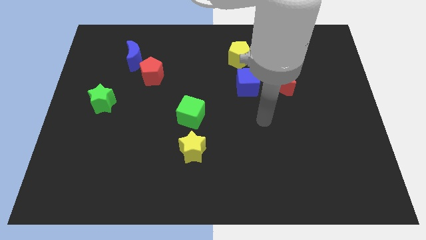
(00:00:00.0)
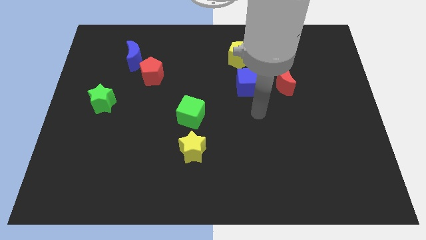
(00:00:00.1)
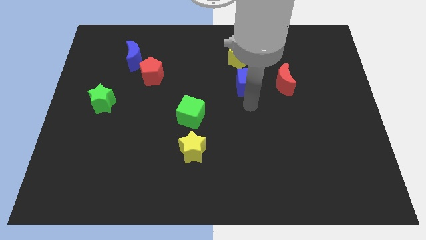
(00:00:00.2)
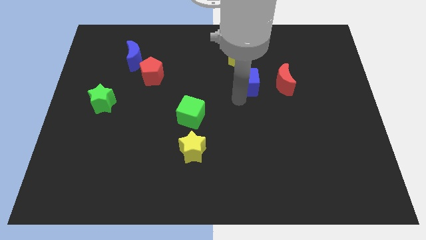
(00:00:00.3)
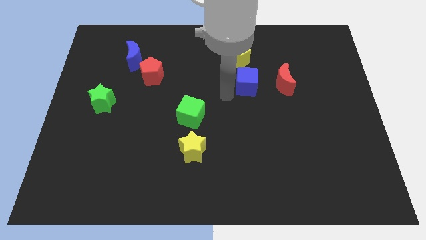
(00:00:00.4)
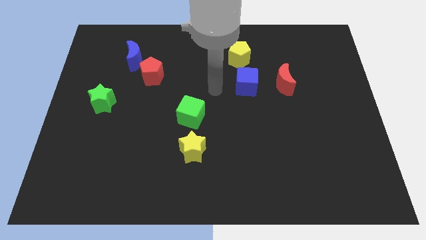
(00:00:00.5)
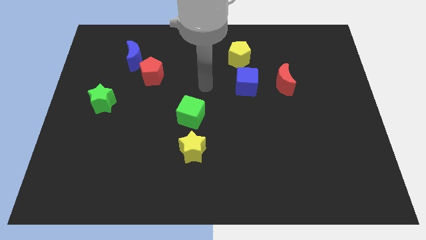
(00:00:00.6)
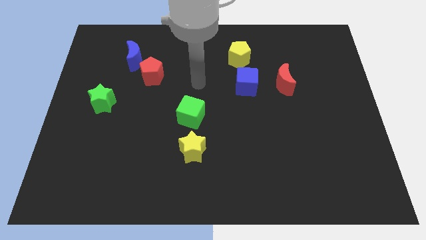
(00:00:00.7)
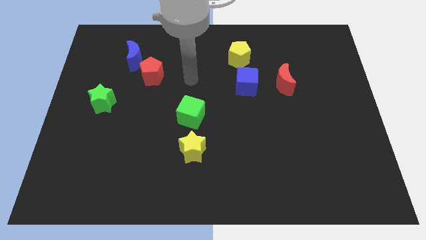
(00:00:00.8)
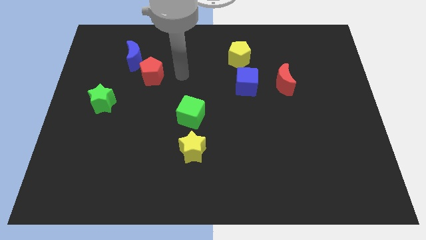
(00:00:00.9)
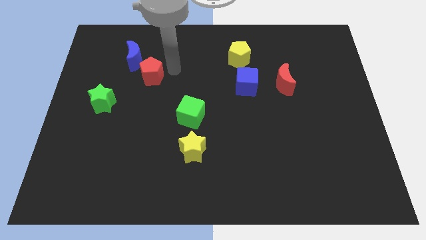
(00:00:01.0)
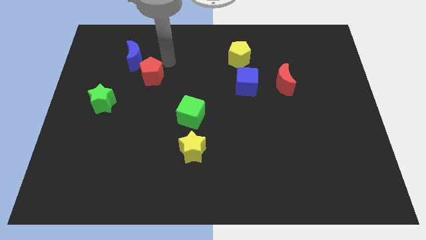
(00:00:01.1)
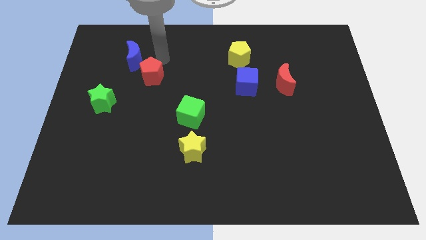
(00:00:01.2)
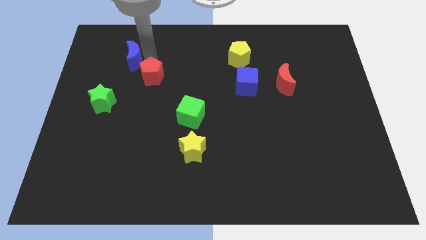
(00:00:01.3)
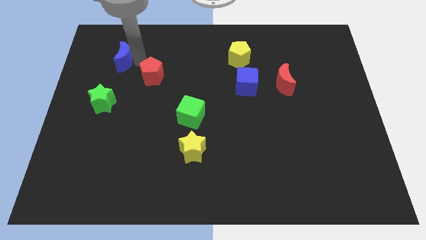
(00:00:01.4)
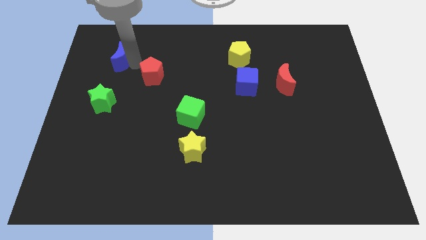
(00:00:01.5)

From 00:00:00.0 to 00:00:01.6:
pull the red pentagon apart from the blue moon

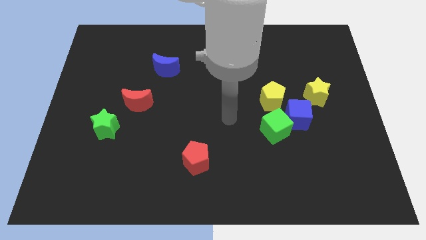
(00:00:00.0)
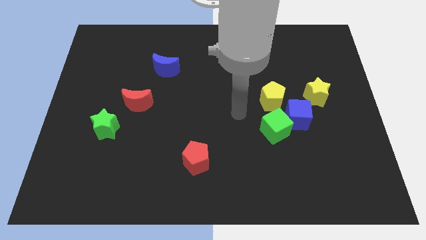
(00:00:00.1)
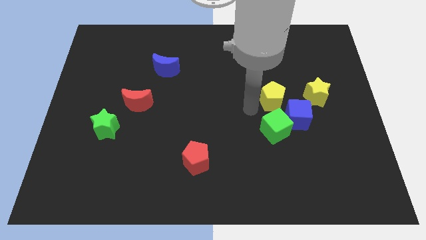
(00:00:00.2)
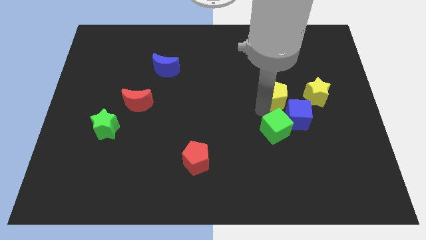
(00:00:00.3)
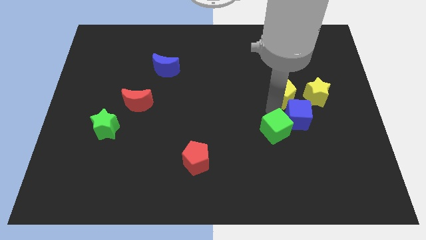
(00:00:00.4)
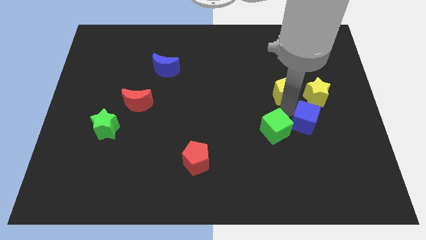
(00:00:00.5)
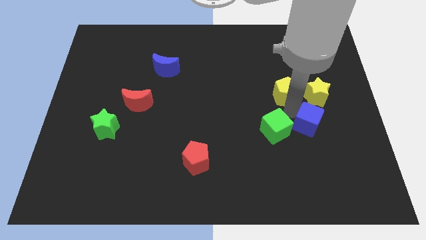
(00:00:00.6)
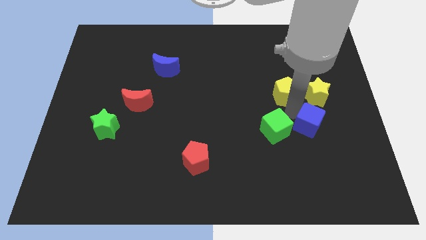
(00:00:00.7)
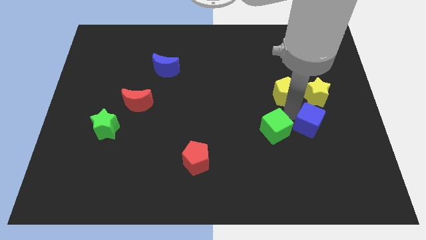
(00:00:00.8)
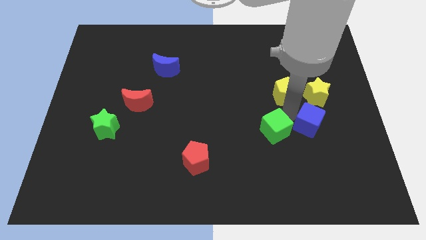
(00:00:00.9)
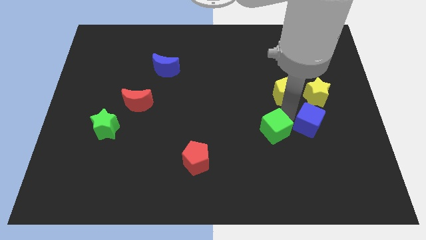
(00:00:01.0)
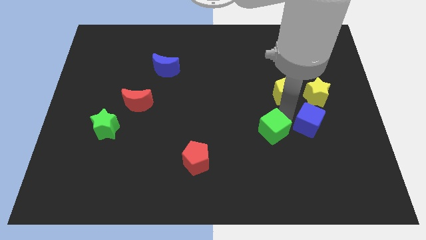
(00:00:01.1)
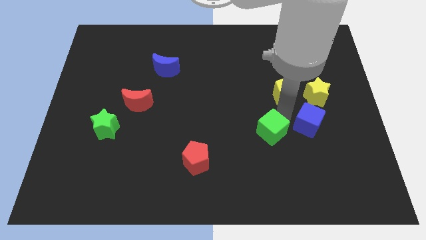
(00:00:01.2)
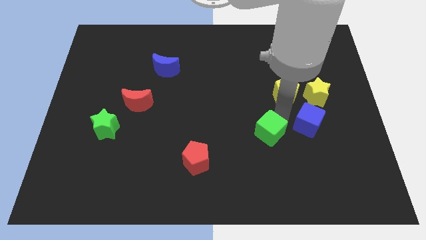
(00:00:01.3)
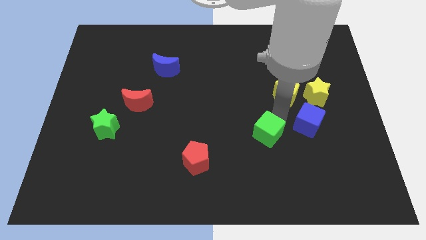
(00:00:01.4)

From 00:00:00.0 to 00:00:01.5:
pull the green cube apart from the blue cube and yellow pentagon

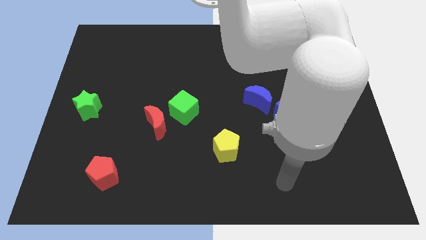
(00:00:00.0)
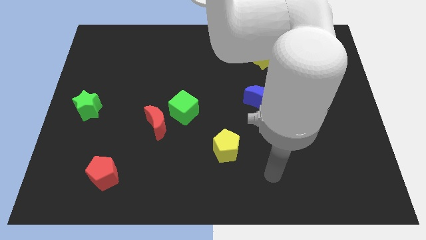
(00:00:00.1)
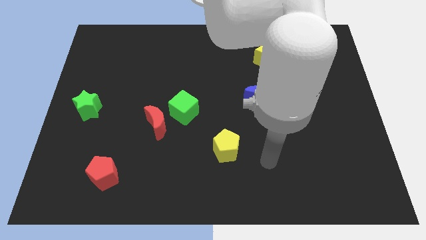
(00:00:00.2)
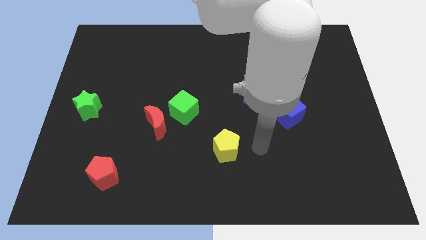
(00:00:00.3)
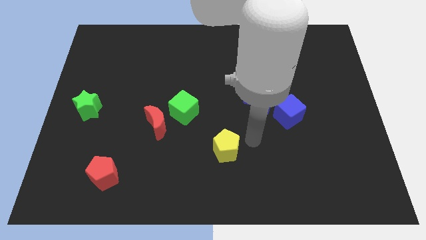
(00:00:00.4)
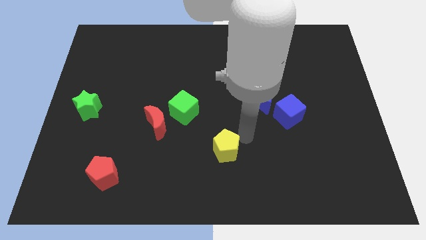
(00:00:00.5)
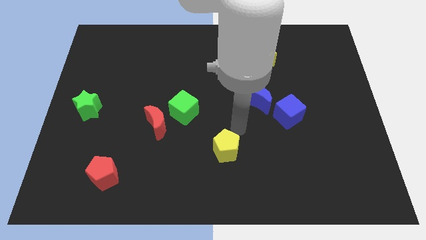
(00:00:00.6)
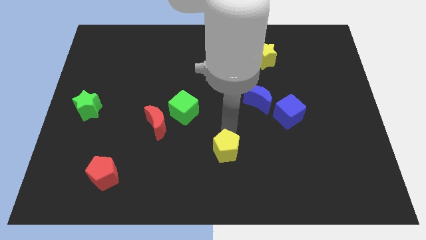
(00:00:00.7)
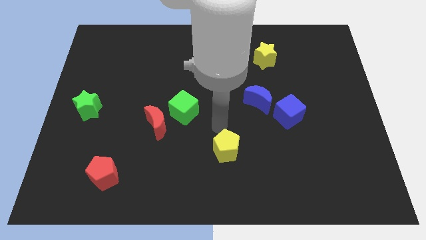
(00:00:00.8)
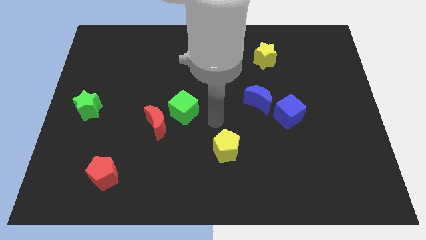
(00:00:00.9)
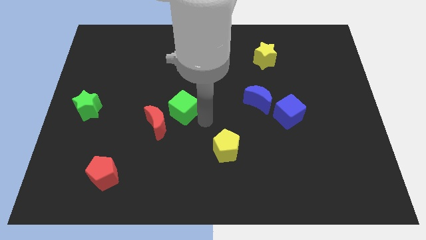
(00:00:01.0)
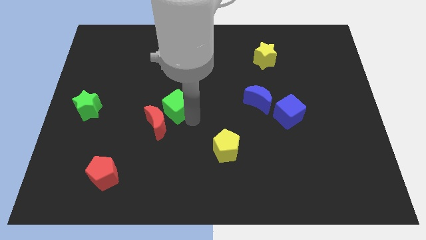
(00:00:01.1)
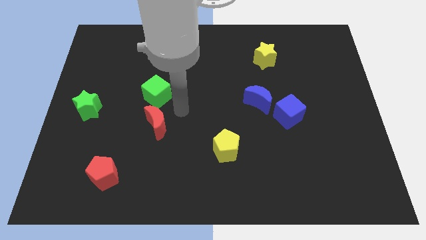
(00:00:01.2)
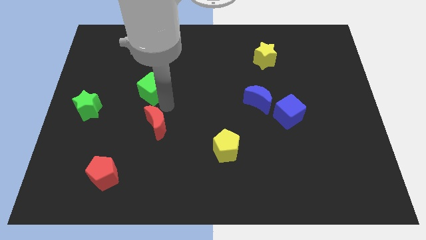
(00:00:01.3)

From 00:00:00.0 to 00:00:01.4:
separate the red moon from the green cube

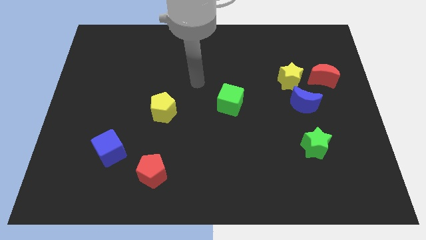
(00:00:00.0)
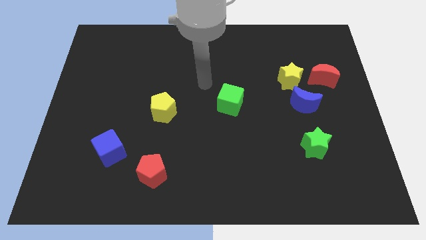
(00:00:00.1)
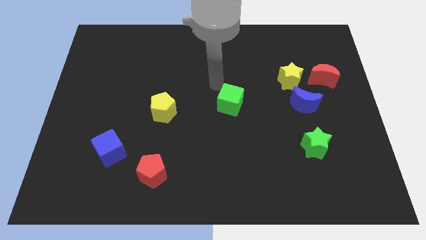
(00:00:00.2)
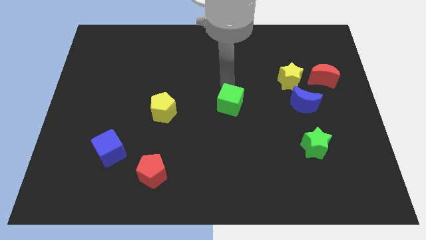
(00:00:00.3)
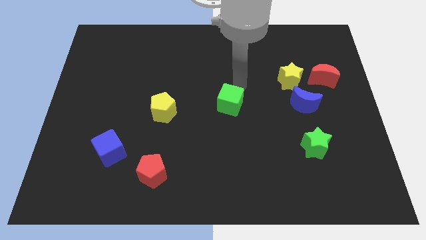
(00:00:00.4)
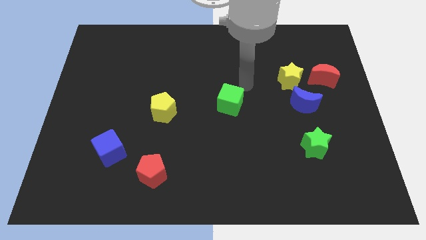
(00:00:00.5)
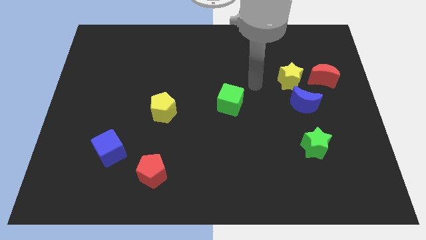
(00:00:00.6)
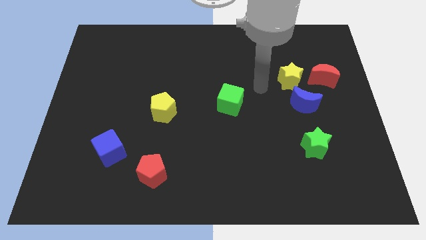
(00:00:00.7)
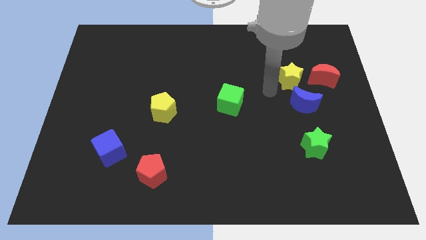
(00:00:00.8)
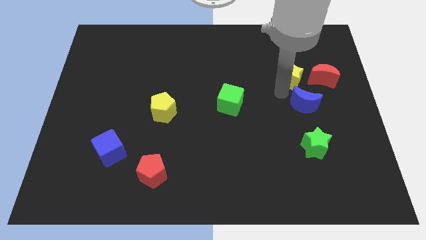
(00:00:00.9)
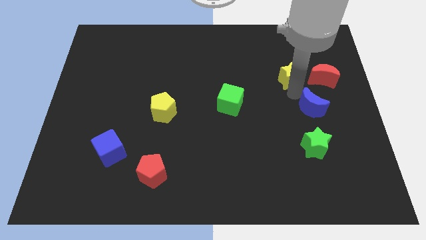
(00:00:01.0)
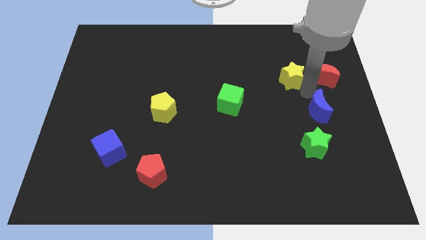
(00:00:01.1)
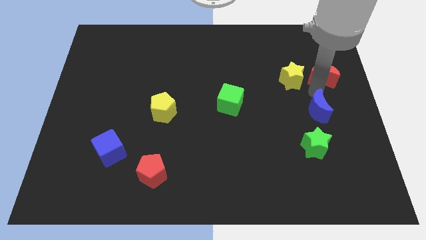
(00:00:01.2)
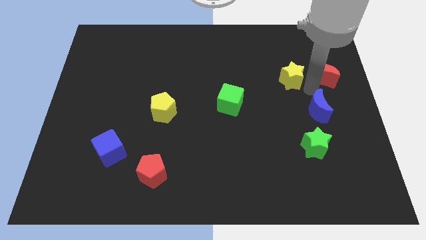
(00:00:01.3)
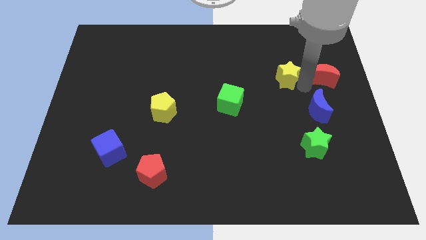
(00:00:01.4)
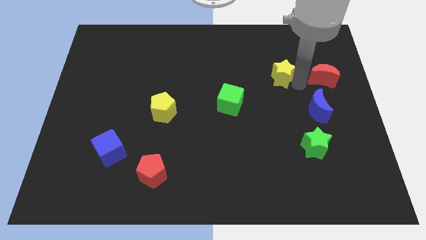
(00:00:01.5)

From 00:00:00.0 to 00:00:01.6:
pull the yellow star apart from the blue moon and red moon

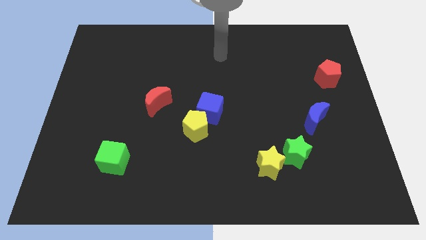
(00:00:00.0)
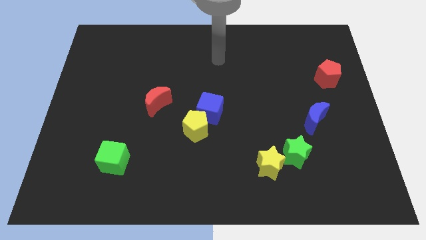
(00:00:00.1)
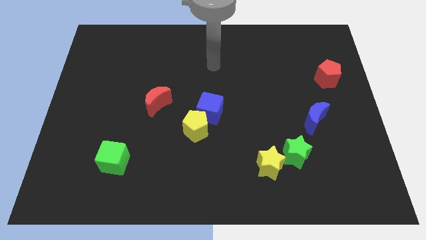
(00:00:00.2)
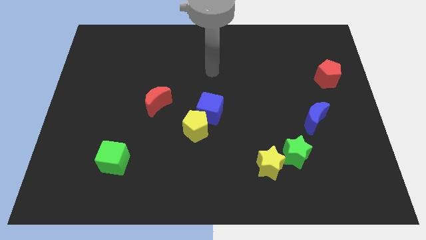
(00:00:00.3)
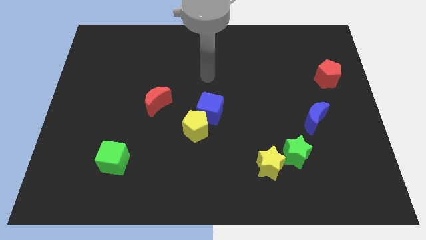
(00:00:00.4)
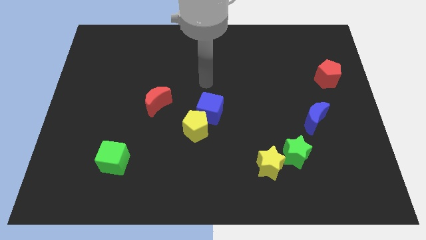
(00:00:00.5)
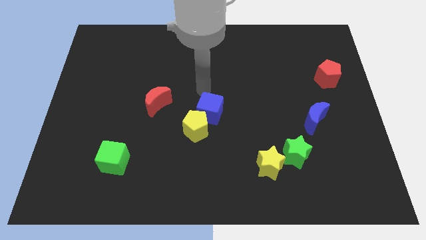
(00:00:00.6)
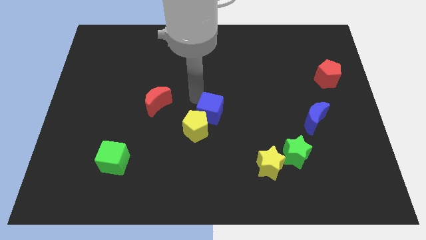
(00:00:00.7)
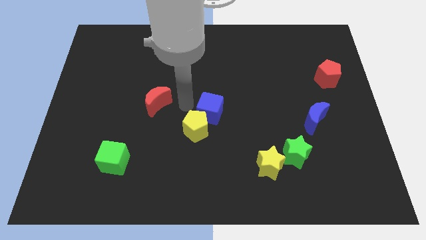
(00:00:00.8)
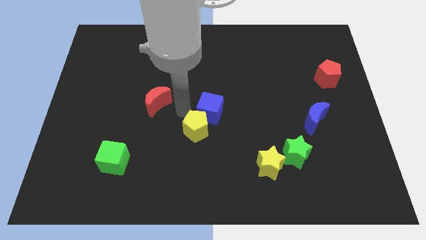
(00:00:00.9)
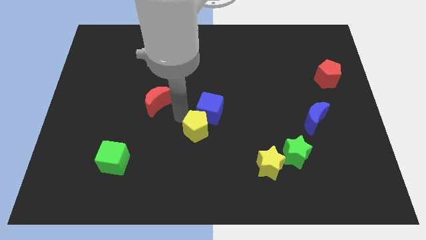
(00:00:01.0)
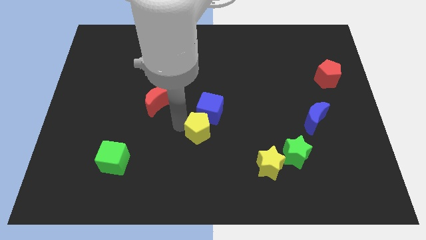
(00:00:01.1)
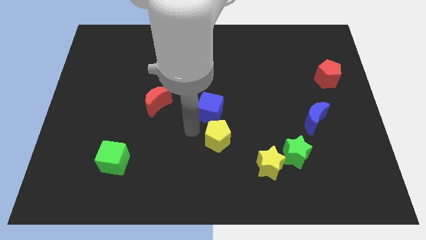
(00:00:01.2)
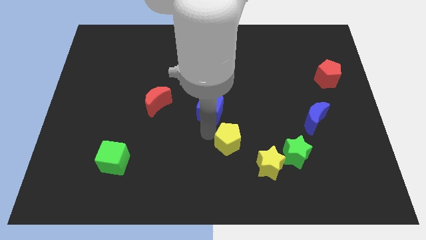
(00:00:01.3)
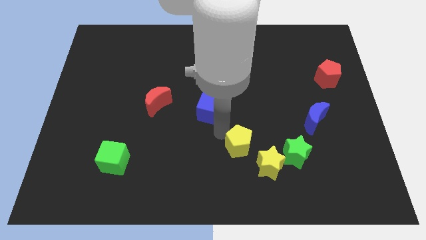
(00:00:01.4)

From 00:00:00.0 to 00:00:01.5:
separate the blue cube from the yellow pentagon

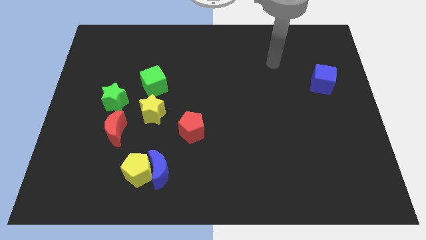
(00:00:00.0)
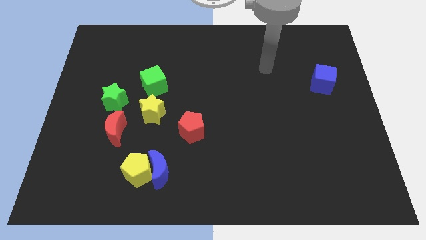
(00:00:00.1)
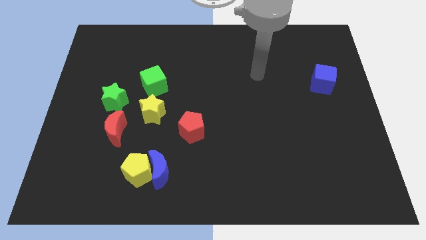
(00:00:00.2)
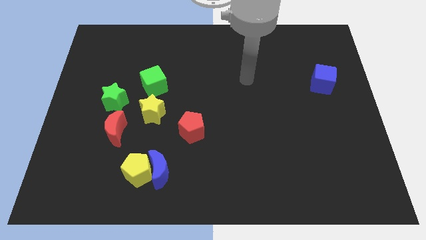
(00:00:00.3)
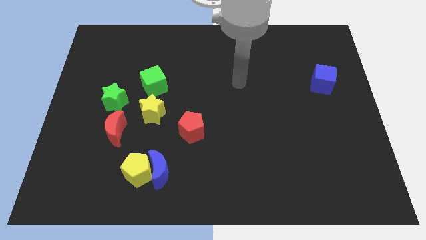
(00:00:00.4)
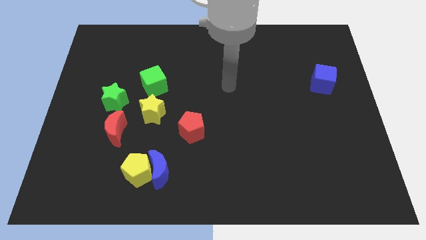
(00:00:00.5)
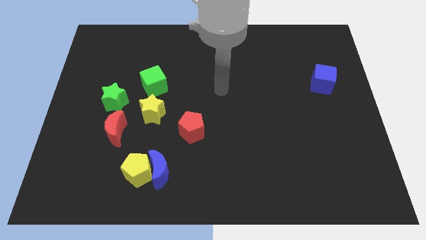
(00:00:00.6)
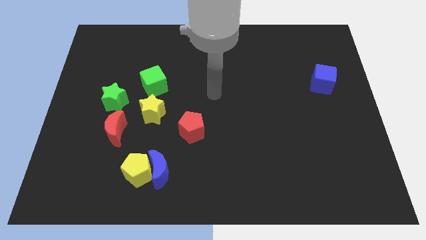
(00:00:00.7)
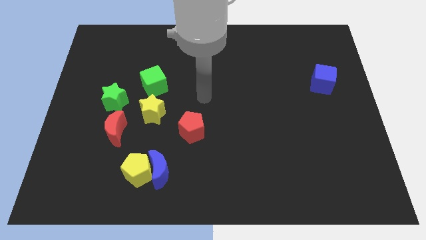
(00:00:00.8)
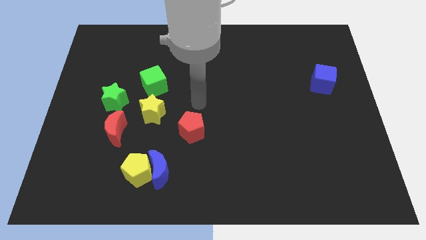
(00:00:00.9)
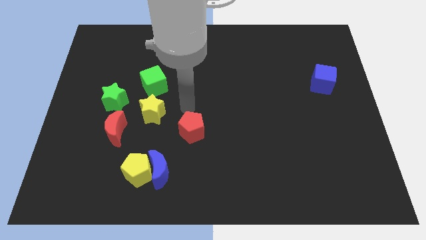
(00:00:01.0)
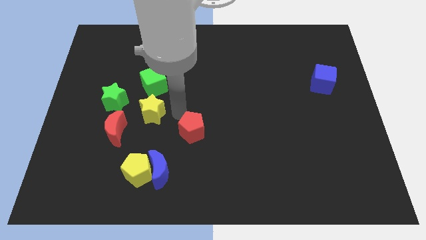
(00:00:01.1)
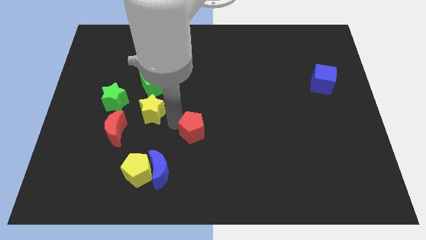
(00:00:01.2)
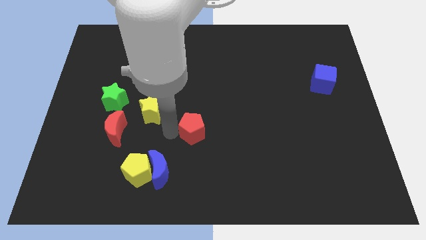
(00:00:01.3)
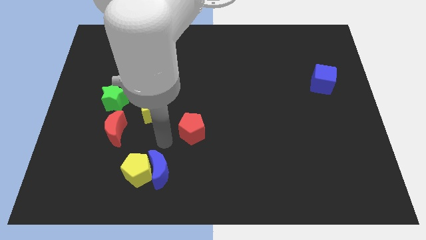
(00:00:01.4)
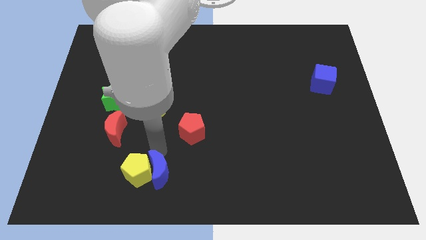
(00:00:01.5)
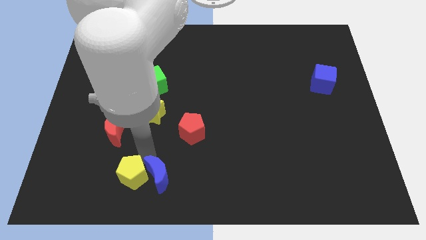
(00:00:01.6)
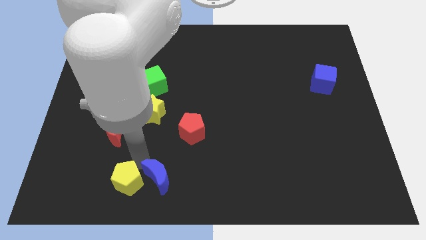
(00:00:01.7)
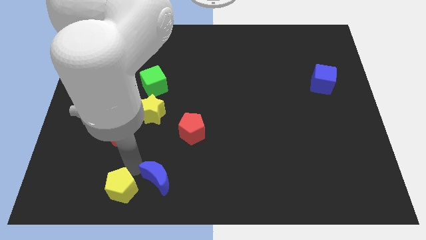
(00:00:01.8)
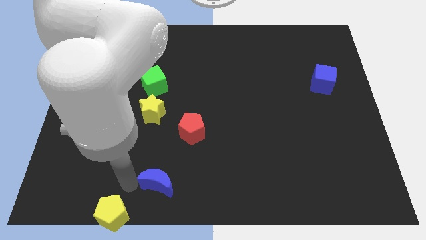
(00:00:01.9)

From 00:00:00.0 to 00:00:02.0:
move the blue moon away from the yellow pentagon
